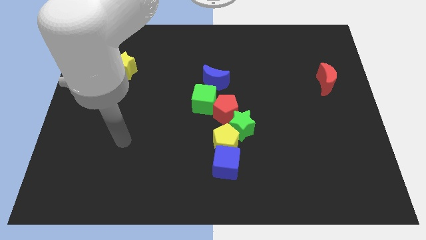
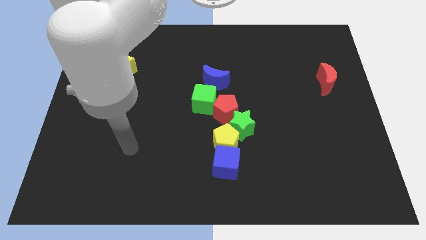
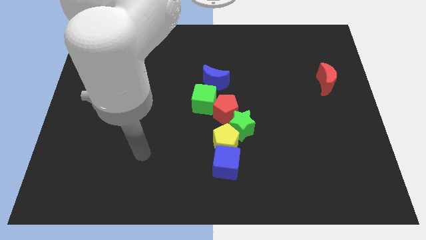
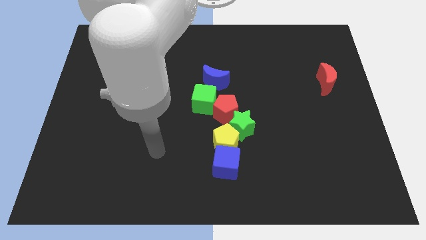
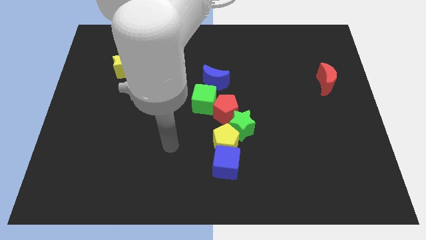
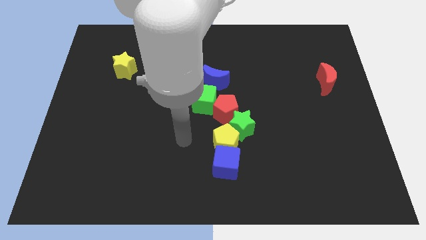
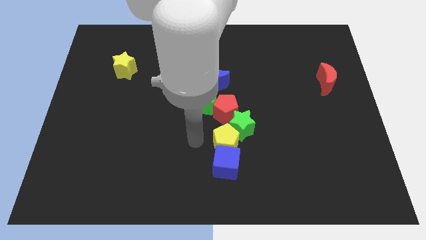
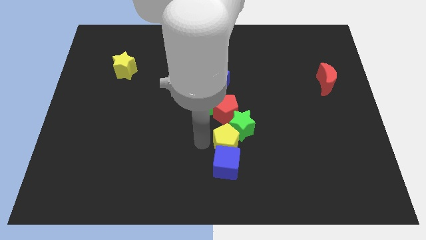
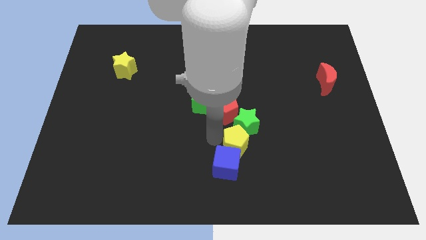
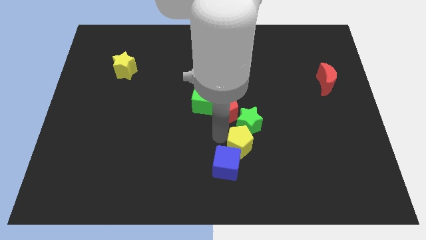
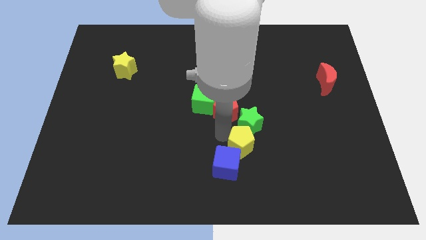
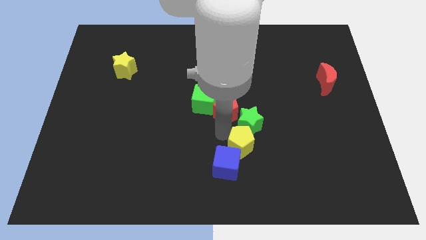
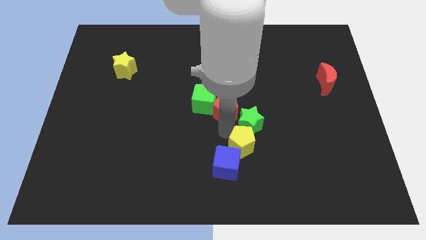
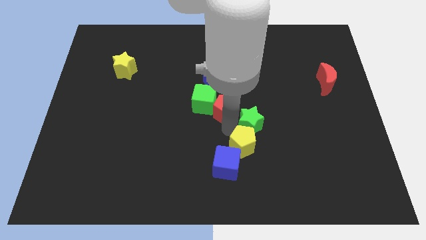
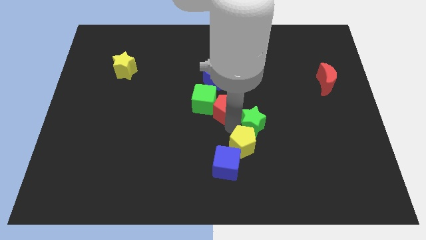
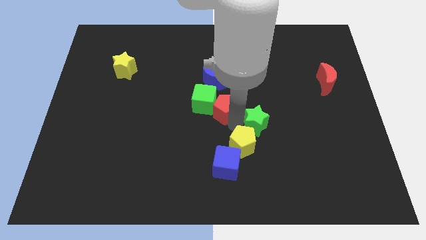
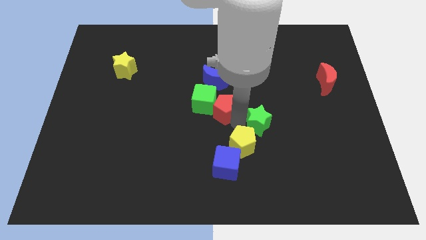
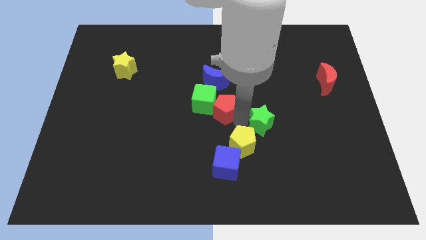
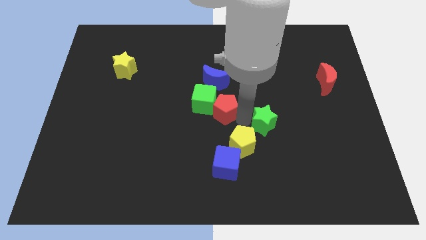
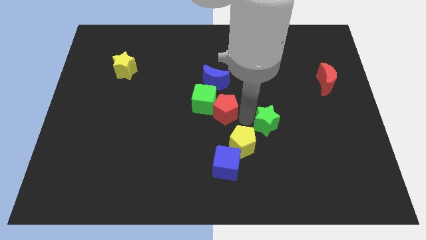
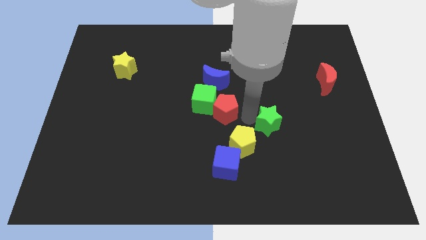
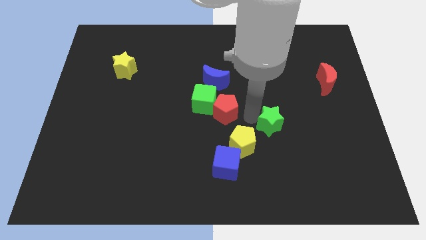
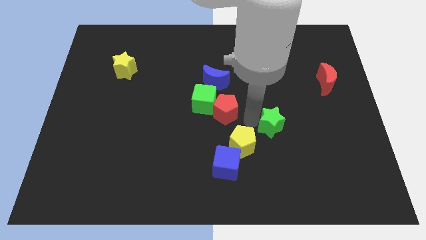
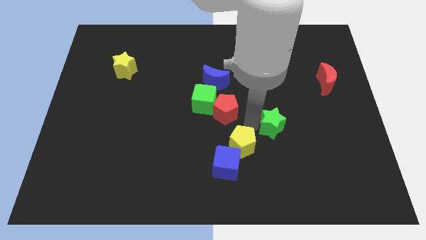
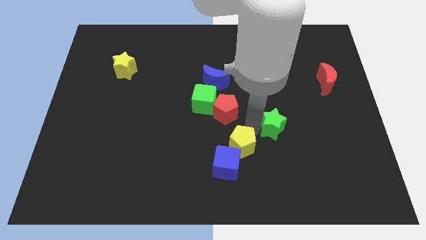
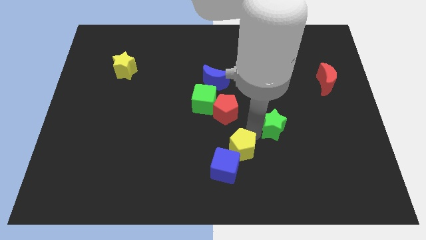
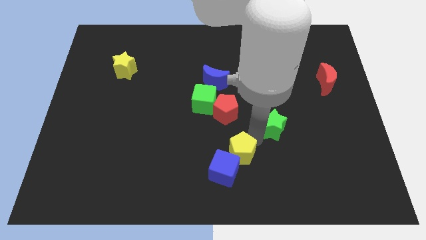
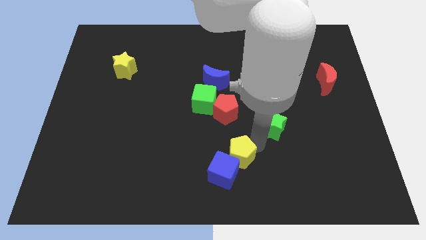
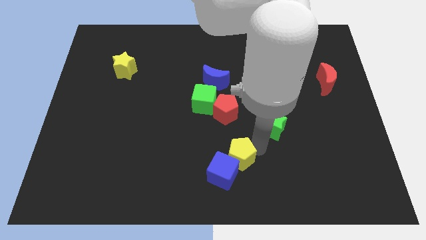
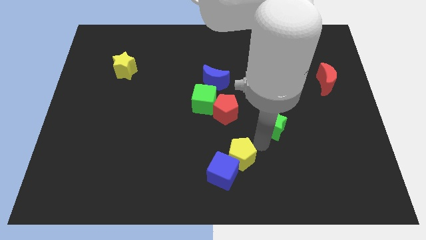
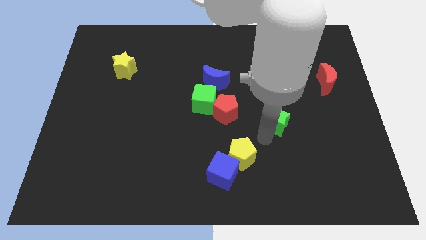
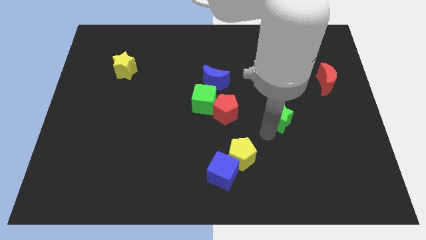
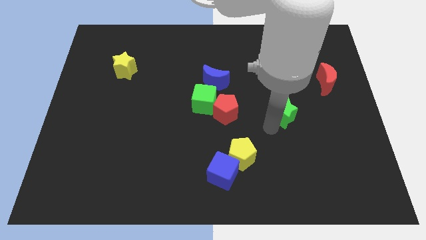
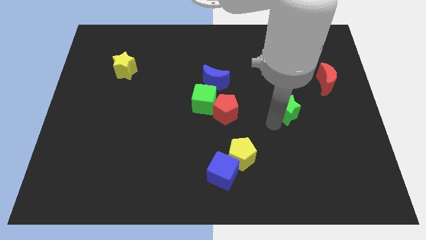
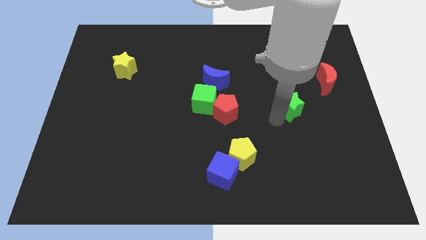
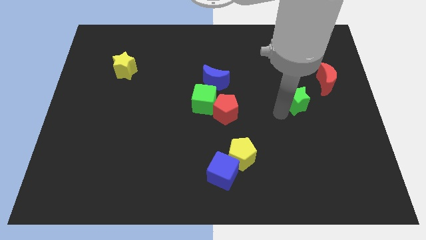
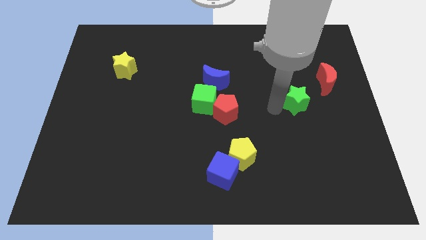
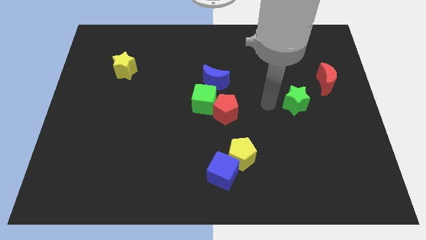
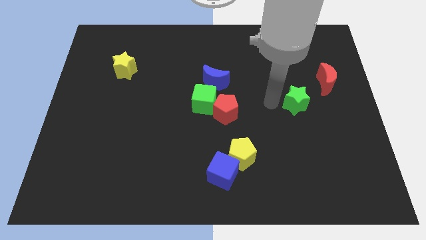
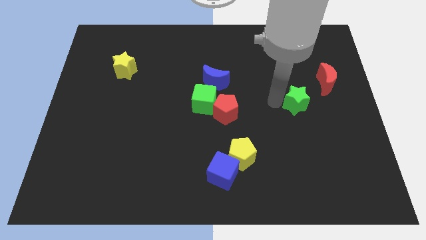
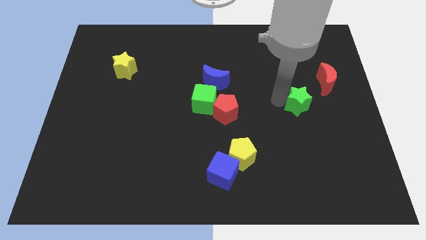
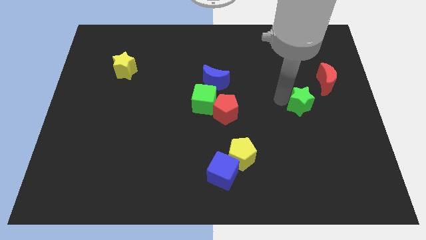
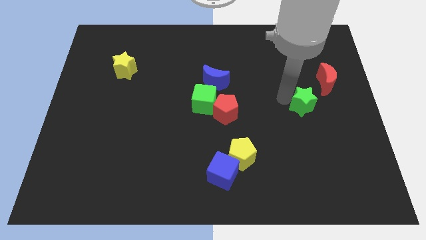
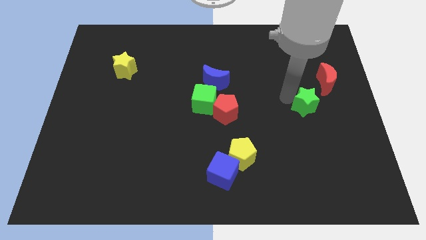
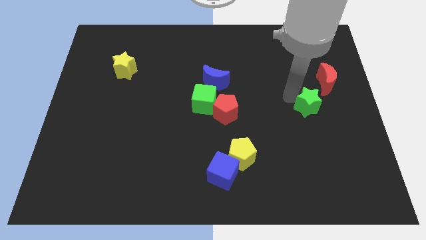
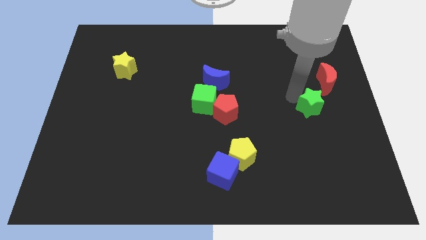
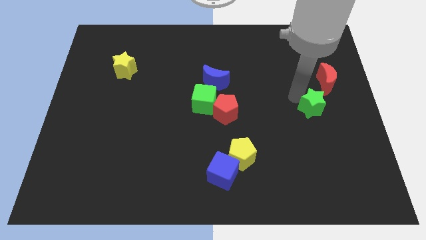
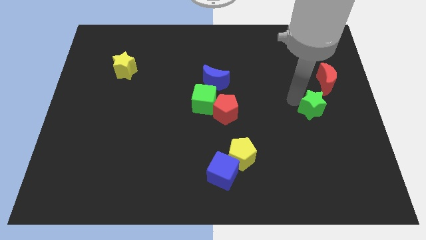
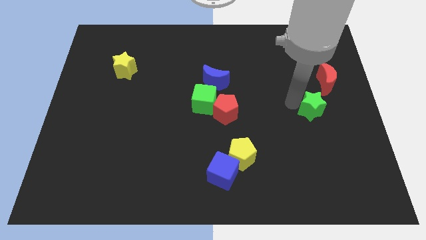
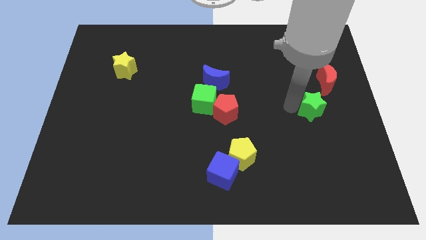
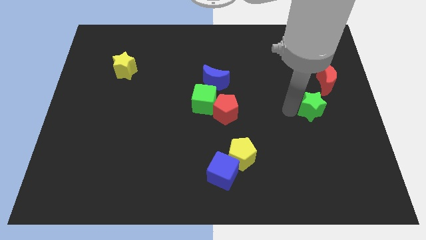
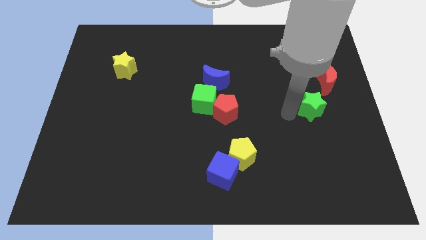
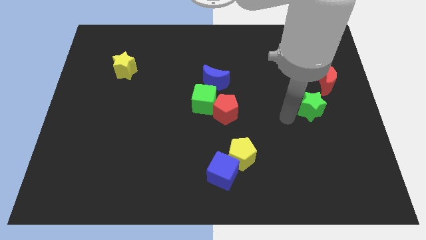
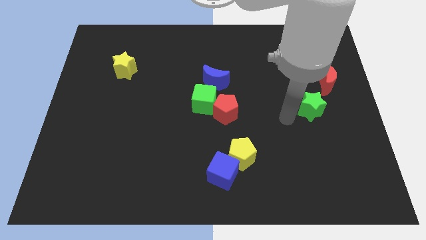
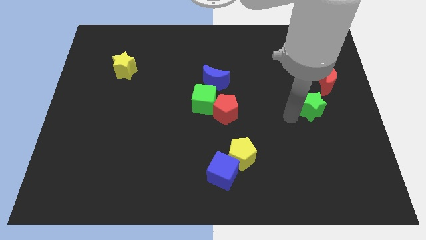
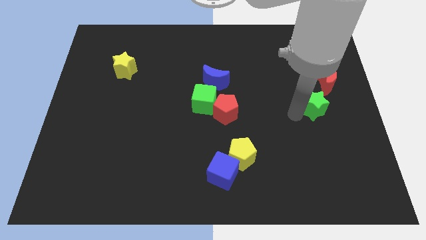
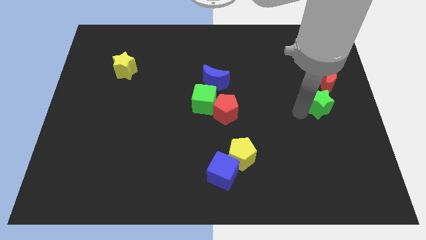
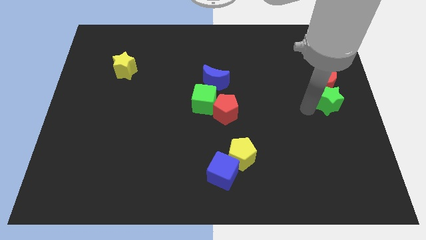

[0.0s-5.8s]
move the green star to the right side

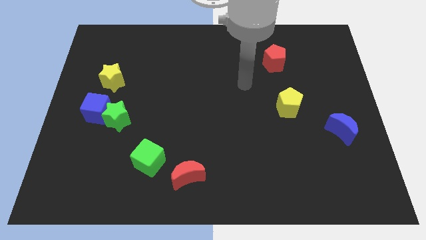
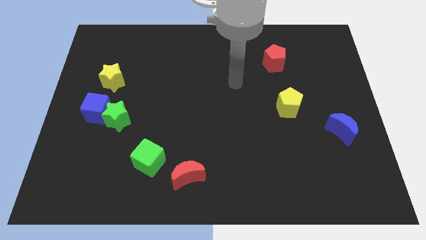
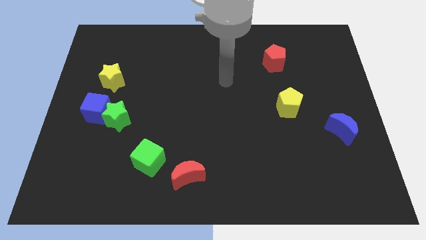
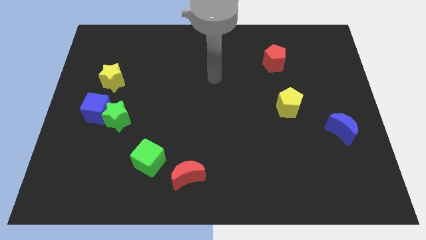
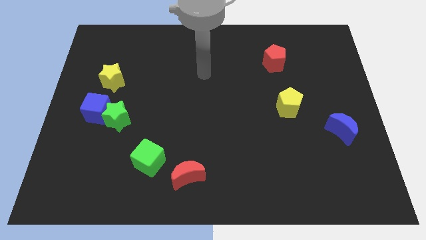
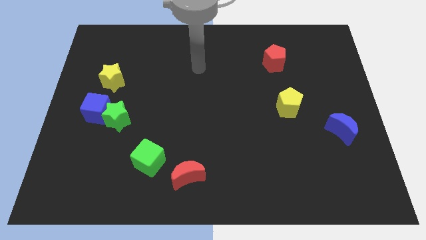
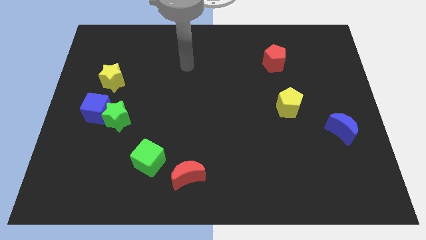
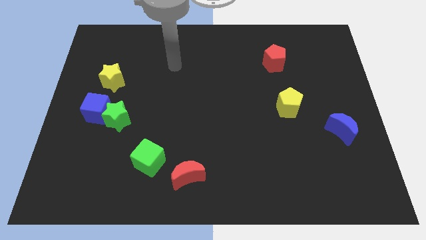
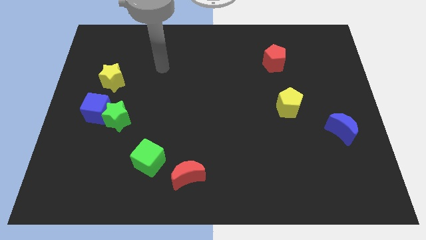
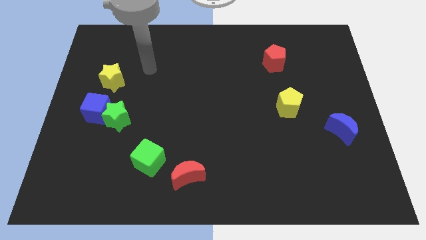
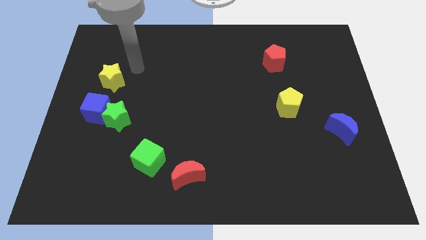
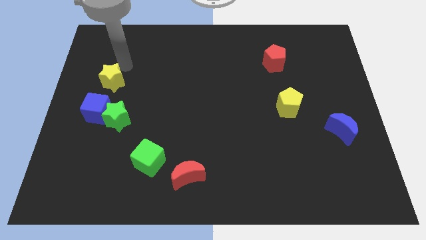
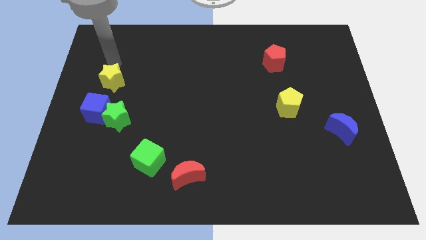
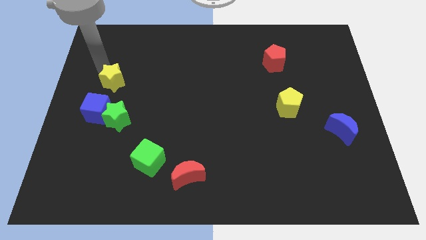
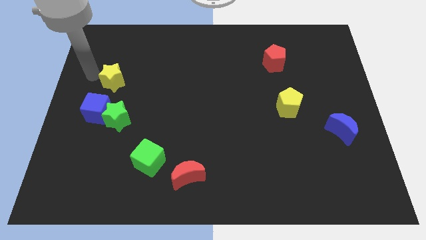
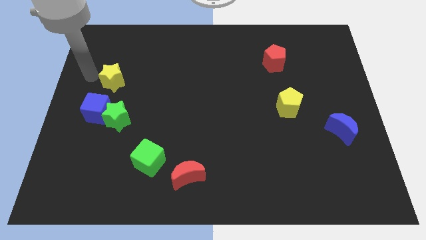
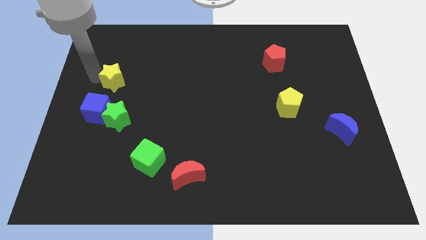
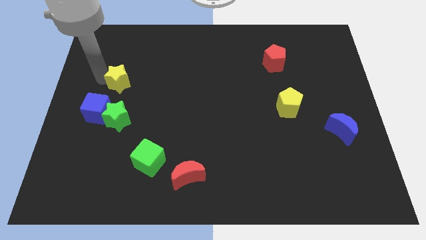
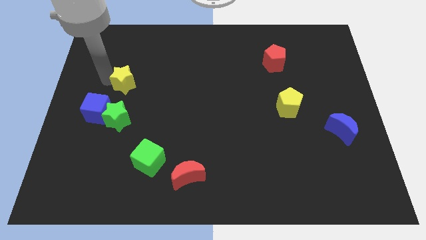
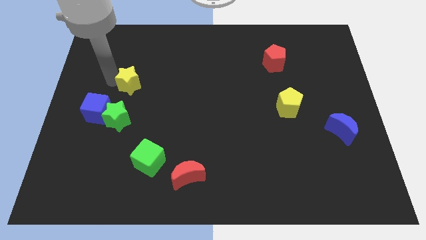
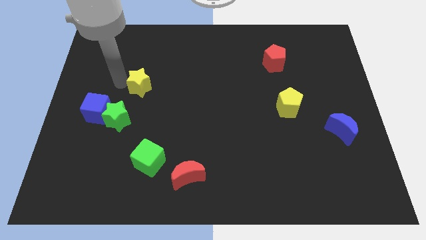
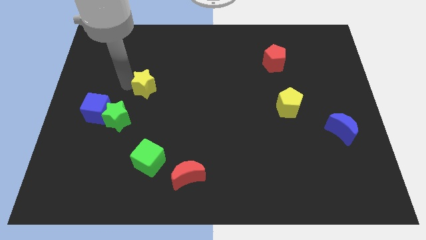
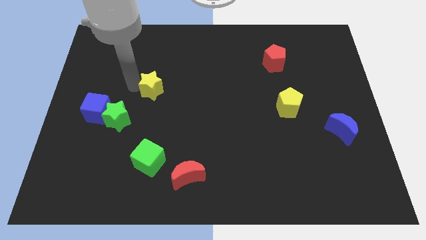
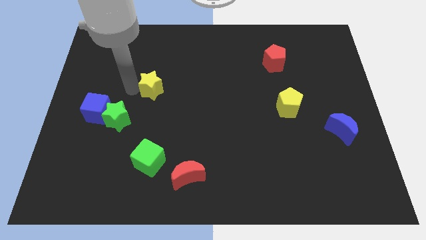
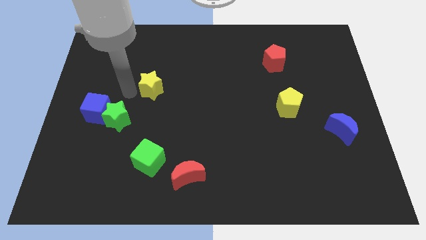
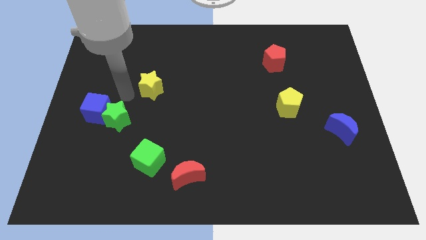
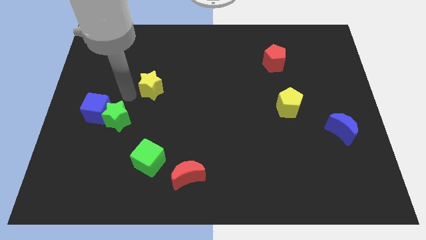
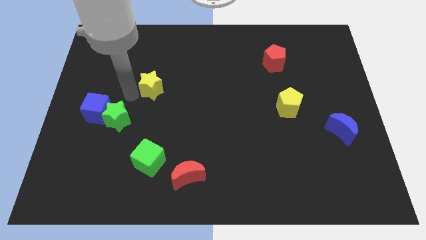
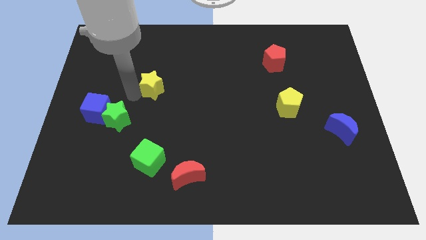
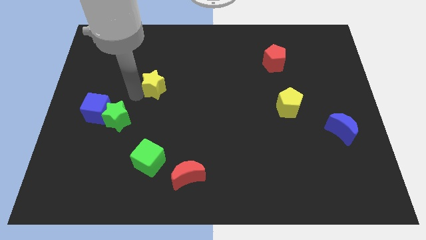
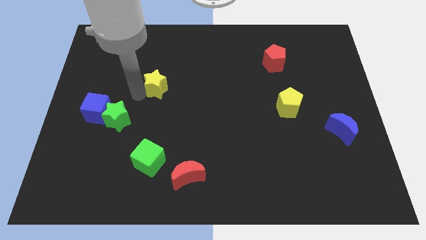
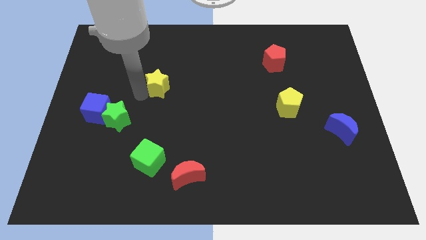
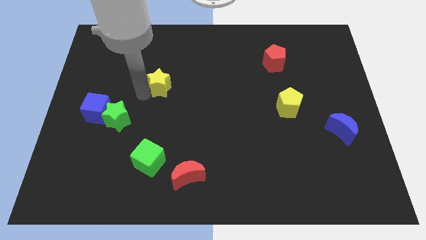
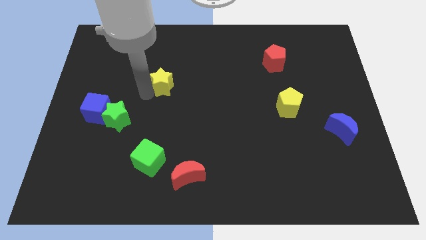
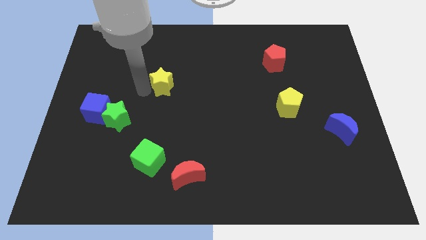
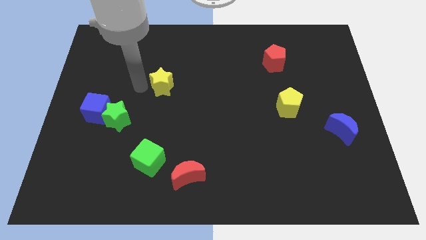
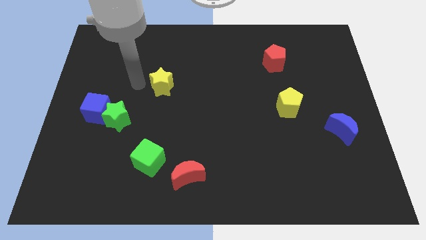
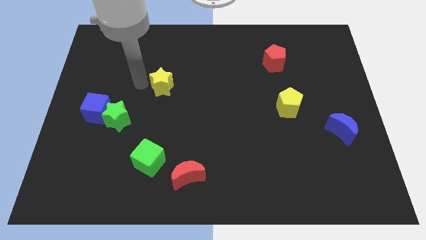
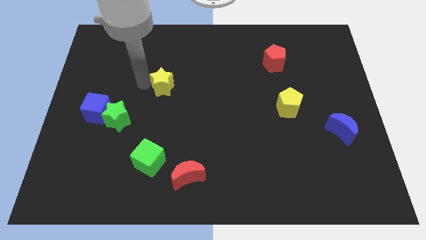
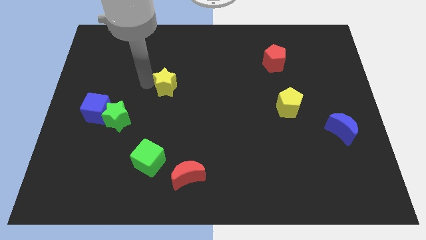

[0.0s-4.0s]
put the yellow star to the center of the board
